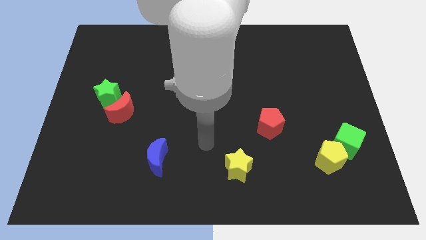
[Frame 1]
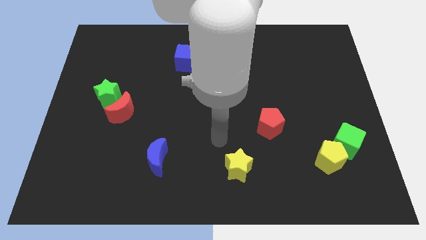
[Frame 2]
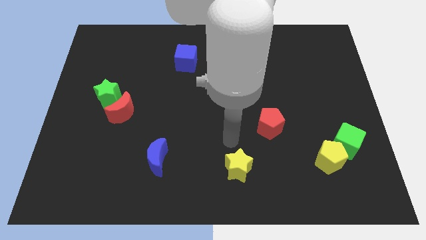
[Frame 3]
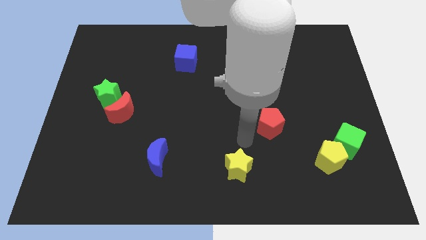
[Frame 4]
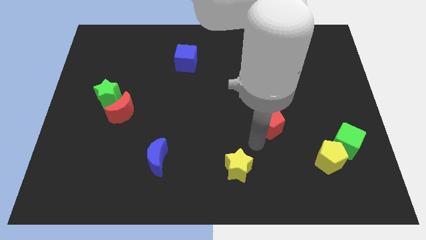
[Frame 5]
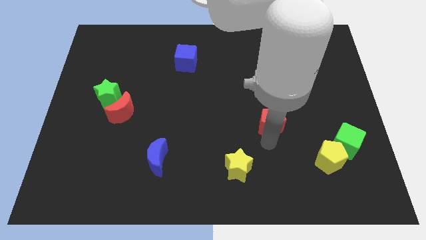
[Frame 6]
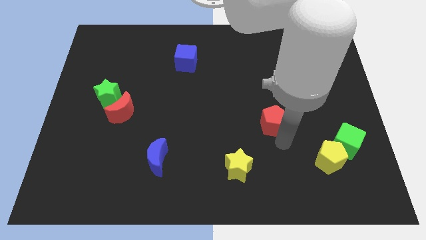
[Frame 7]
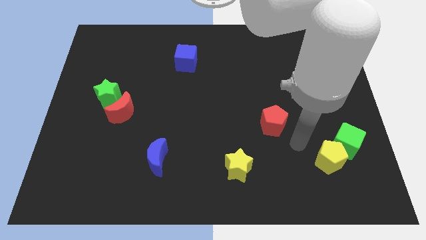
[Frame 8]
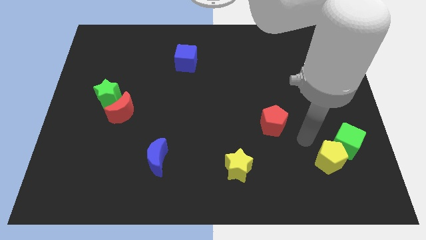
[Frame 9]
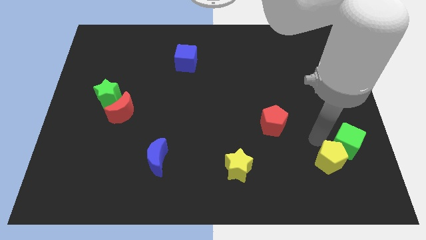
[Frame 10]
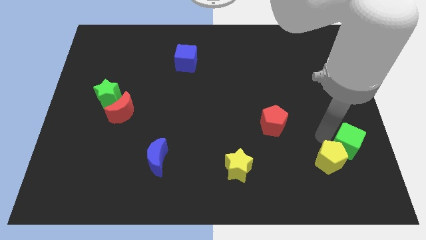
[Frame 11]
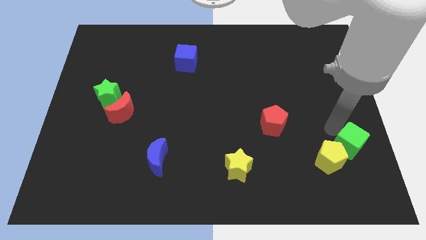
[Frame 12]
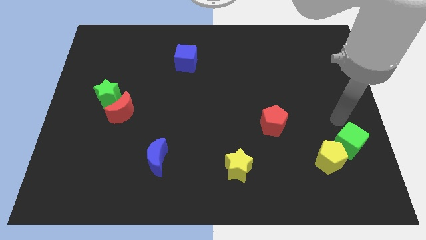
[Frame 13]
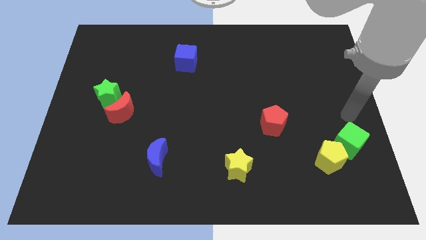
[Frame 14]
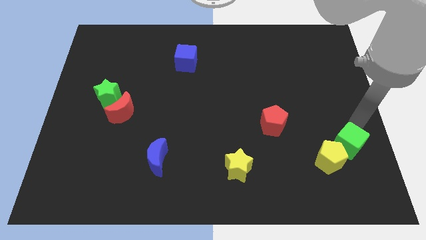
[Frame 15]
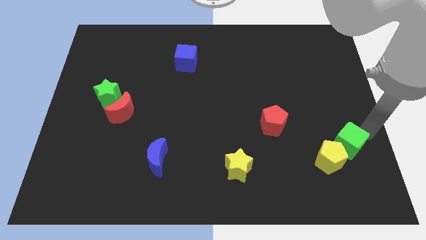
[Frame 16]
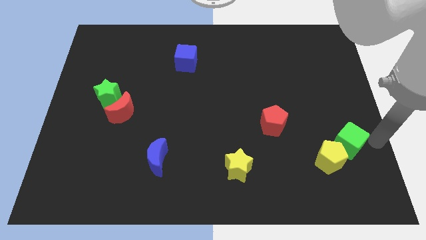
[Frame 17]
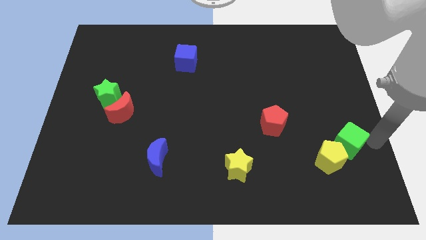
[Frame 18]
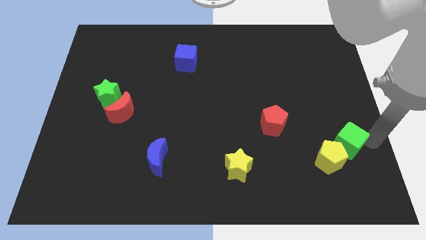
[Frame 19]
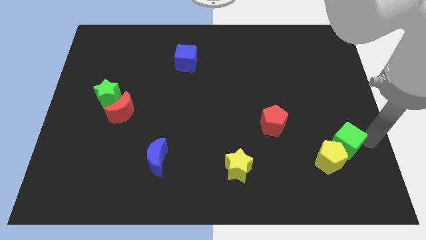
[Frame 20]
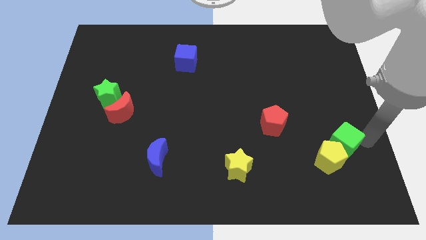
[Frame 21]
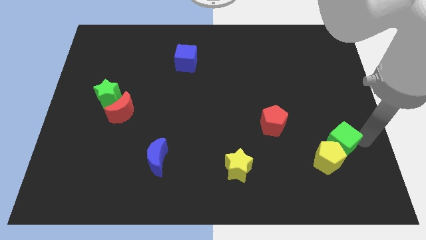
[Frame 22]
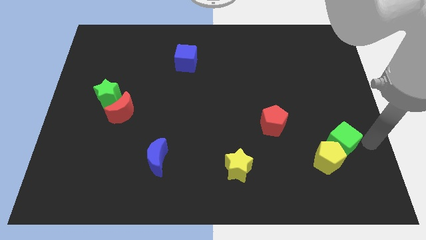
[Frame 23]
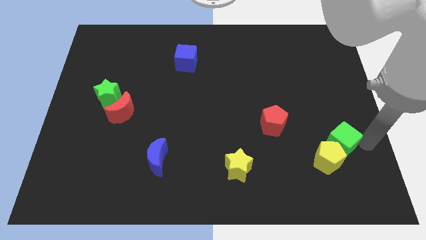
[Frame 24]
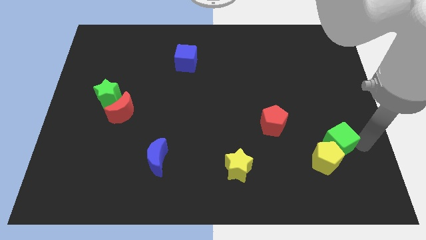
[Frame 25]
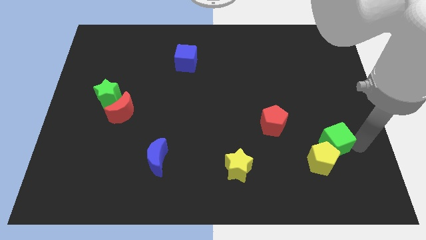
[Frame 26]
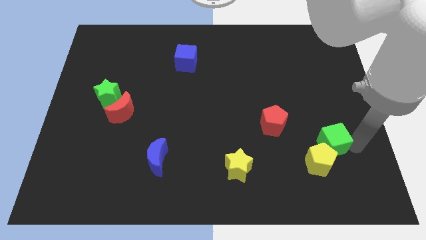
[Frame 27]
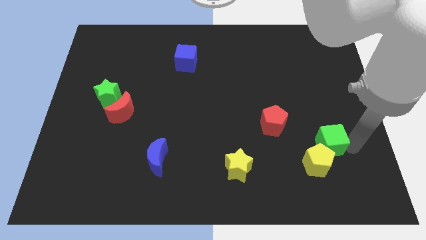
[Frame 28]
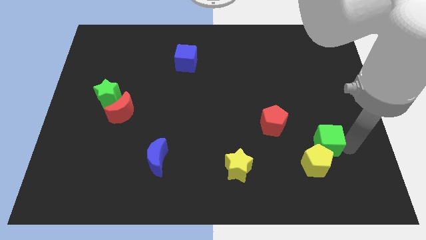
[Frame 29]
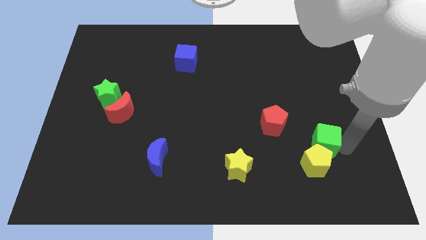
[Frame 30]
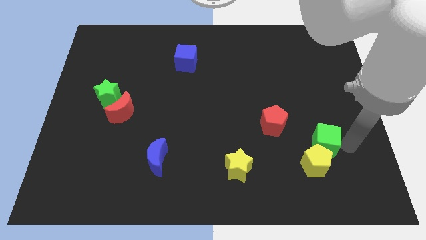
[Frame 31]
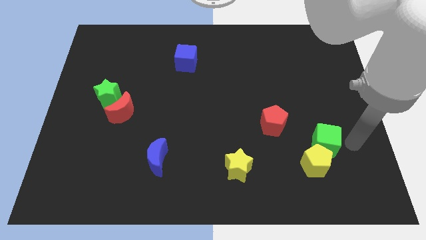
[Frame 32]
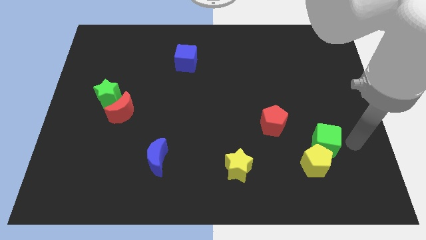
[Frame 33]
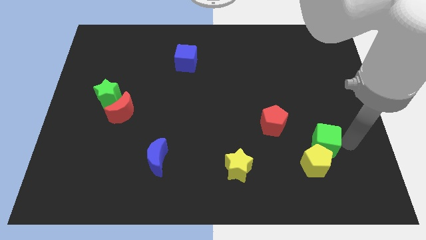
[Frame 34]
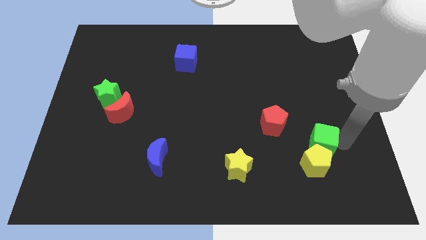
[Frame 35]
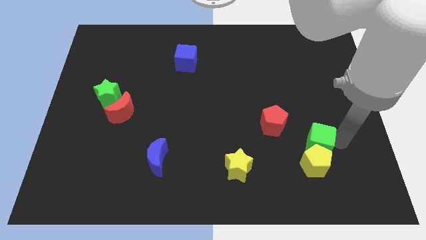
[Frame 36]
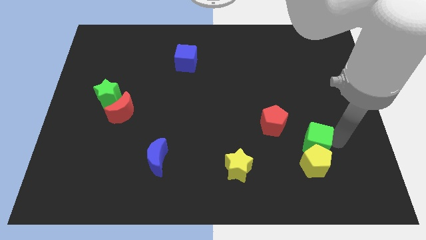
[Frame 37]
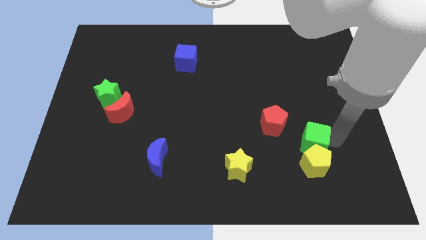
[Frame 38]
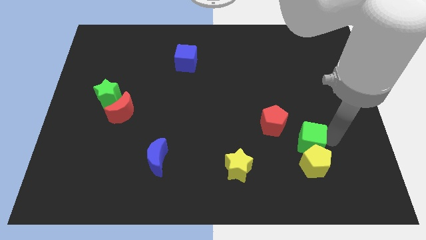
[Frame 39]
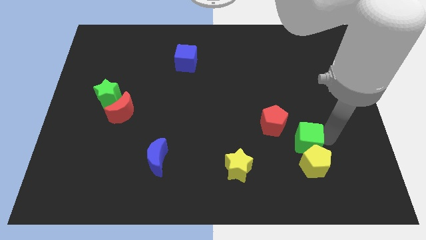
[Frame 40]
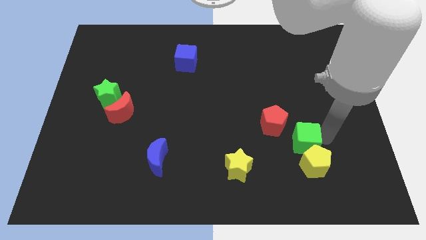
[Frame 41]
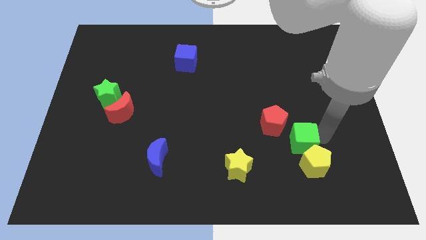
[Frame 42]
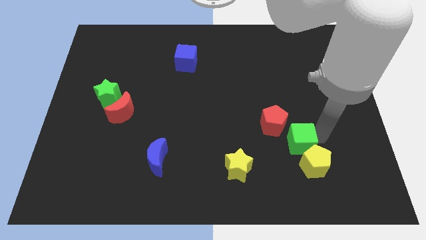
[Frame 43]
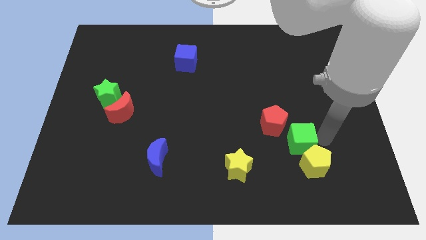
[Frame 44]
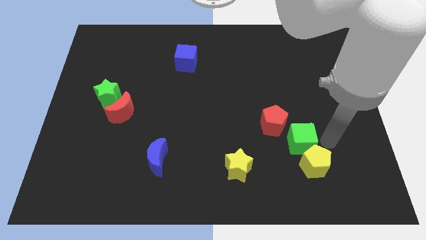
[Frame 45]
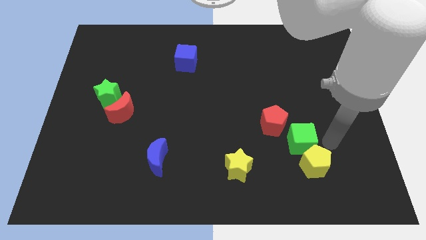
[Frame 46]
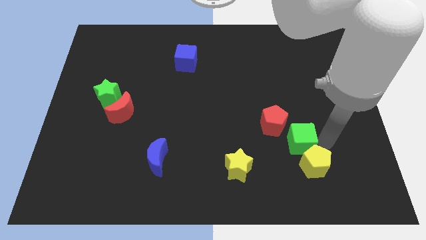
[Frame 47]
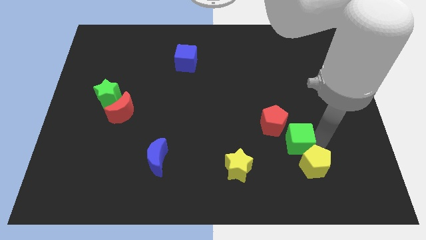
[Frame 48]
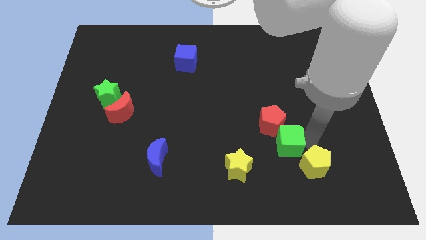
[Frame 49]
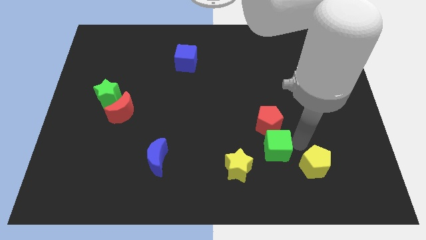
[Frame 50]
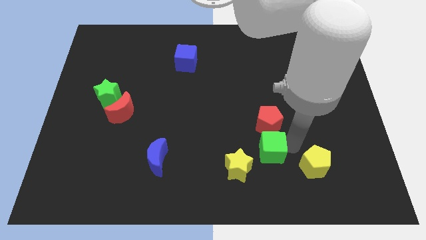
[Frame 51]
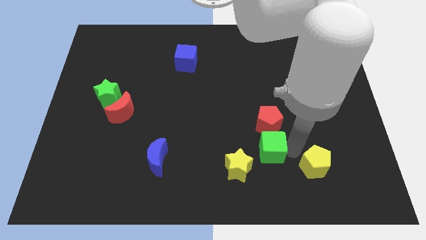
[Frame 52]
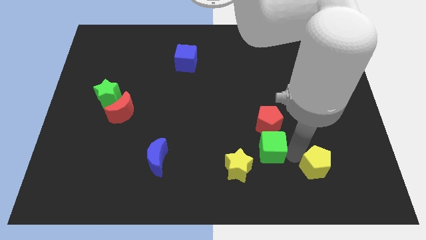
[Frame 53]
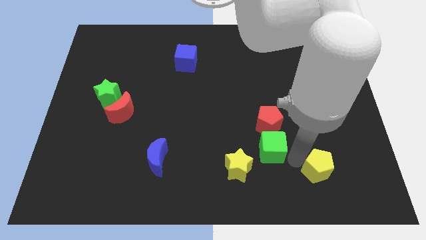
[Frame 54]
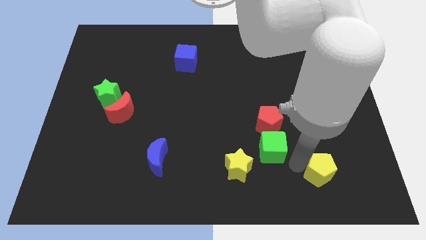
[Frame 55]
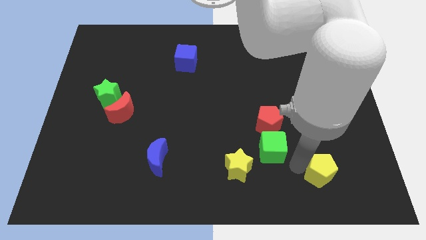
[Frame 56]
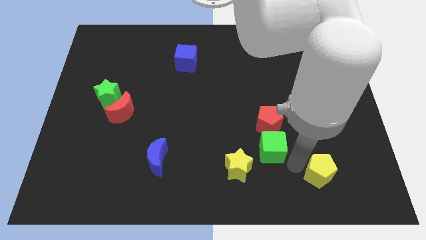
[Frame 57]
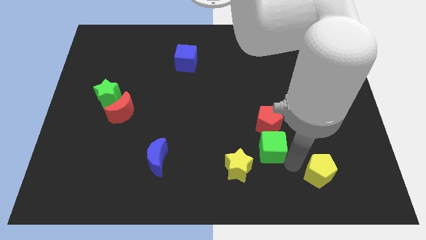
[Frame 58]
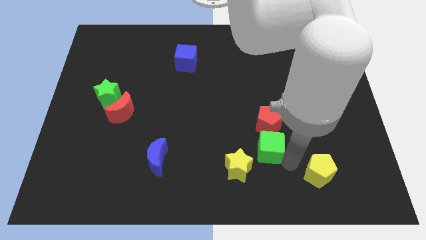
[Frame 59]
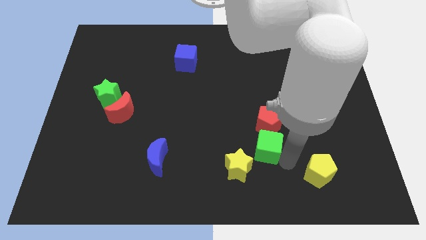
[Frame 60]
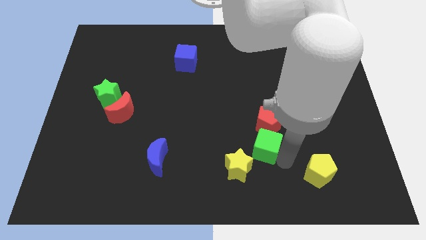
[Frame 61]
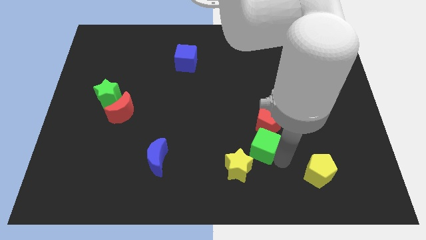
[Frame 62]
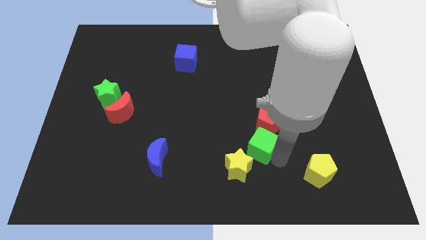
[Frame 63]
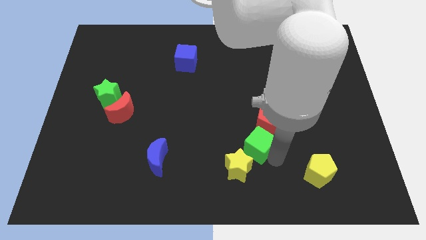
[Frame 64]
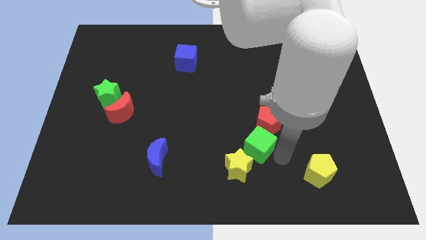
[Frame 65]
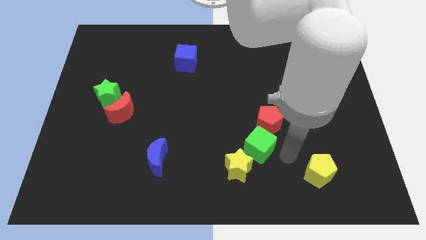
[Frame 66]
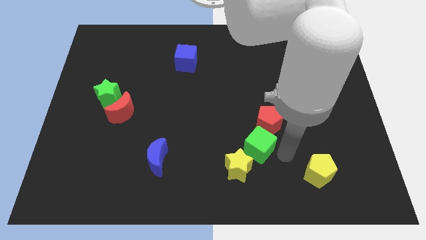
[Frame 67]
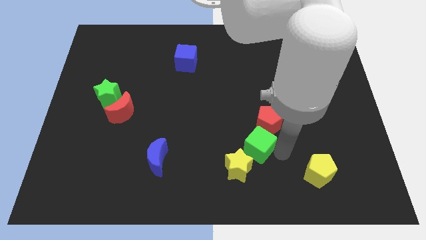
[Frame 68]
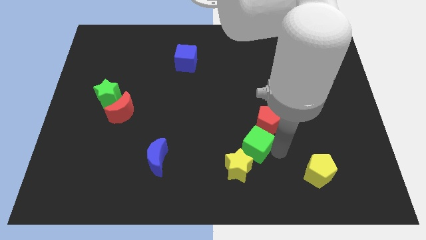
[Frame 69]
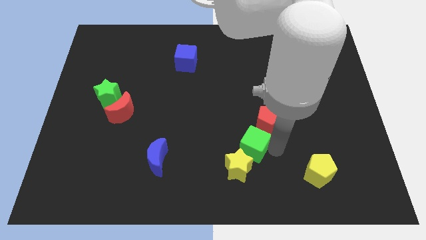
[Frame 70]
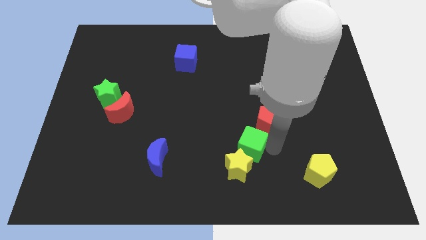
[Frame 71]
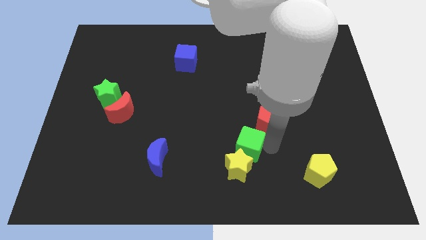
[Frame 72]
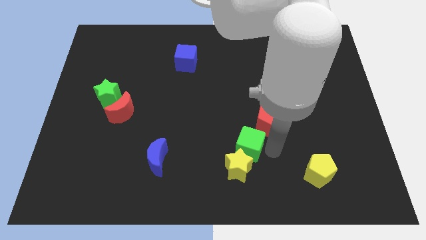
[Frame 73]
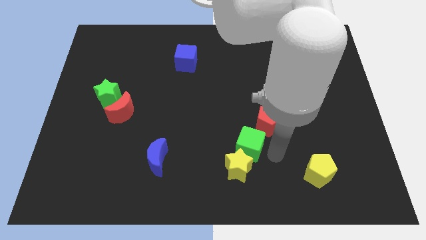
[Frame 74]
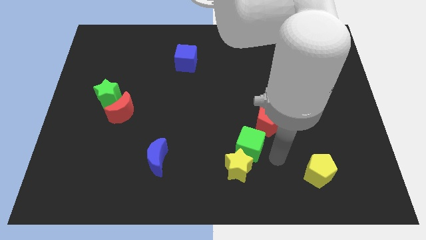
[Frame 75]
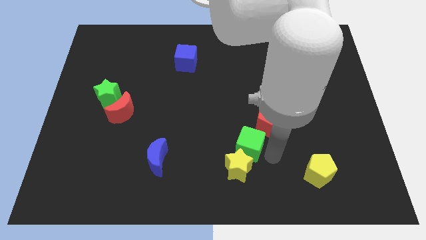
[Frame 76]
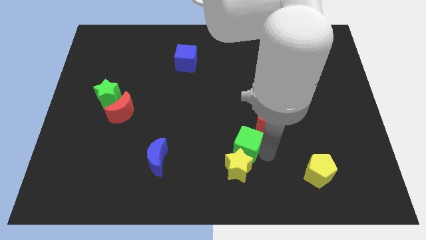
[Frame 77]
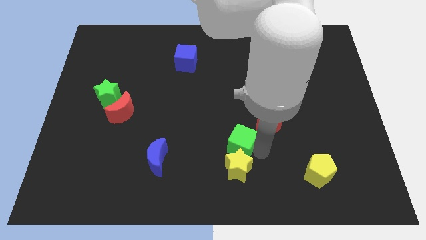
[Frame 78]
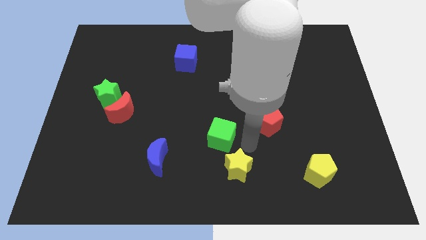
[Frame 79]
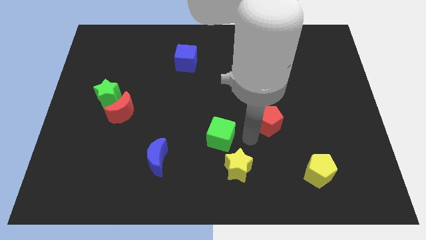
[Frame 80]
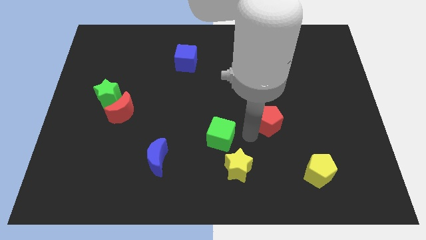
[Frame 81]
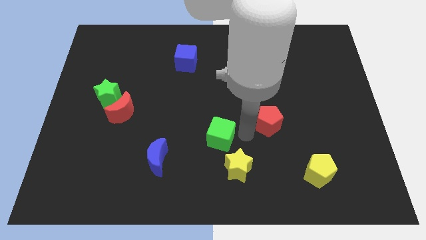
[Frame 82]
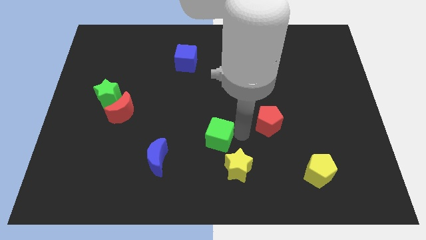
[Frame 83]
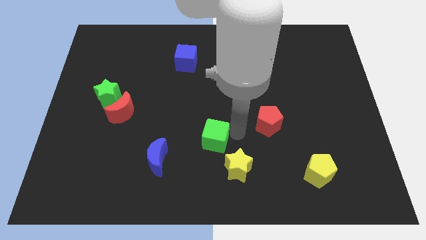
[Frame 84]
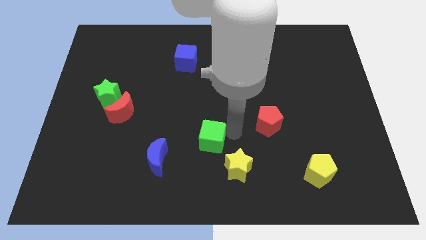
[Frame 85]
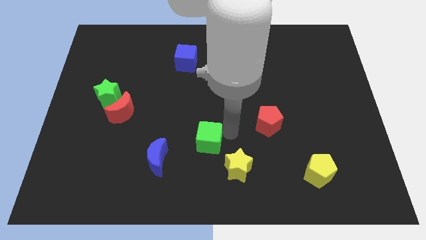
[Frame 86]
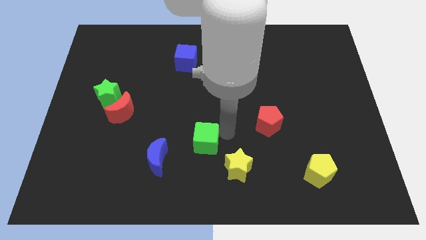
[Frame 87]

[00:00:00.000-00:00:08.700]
move the green cube diagonally up and to the right of the blue moon
